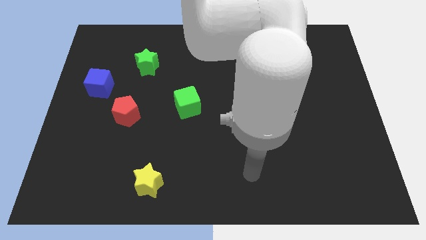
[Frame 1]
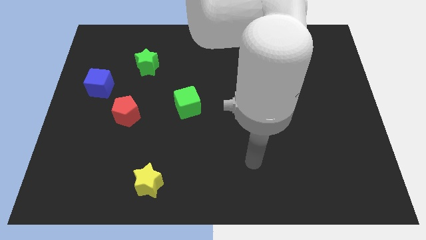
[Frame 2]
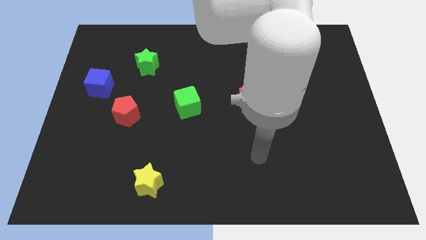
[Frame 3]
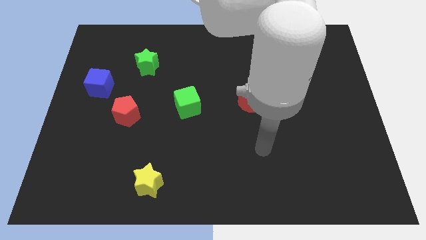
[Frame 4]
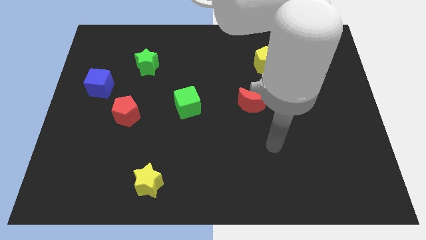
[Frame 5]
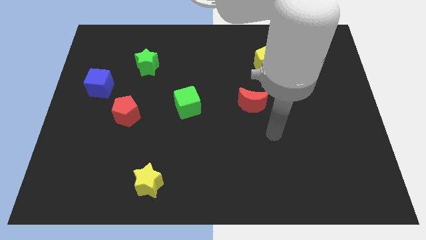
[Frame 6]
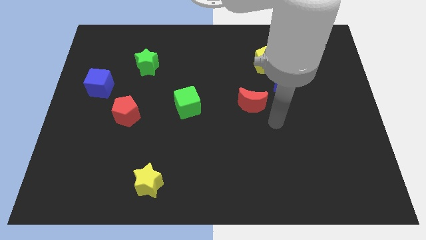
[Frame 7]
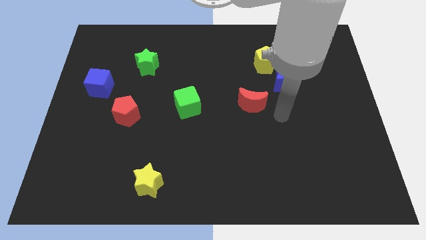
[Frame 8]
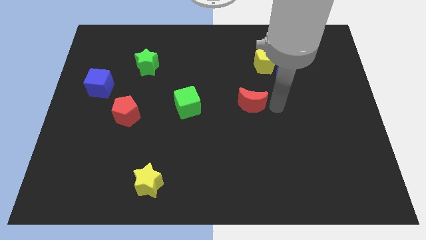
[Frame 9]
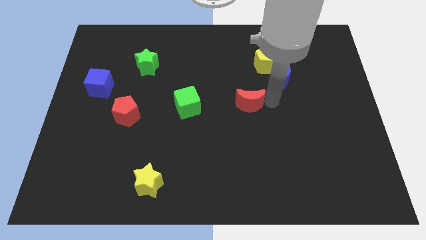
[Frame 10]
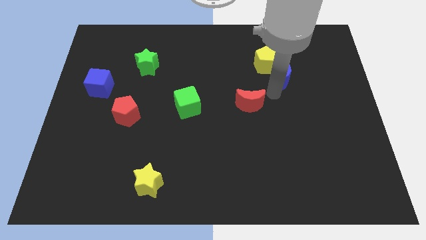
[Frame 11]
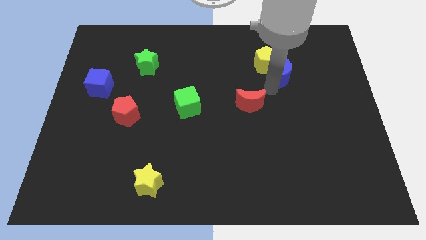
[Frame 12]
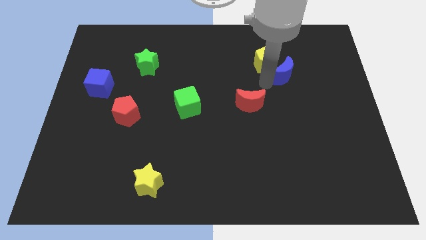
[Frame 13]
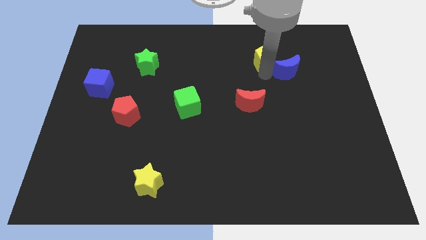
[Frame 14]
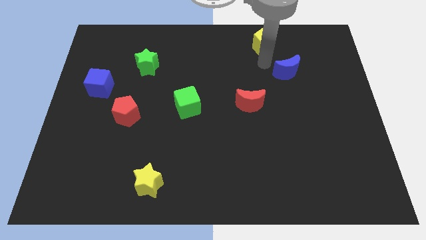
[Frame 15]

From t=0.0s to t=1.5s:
pull the blue moon apart from the yellow pentagon

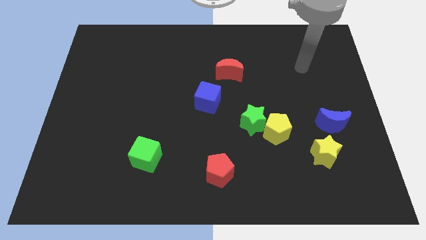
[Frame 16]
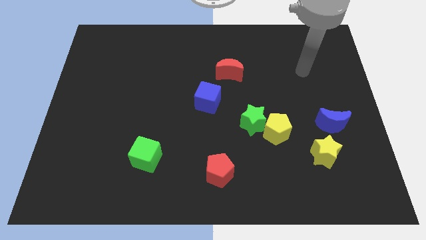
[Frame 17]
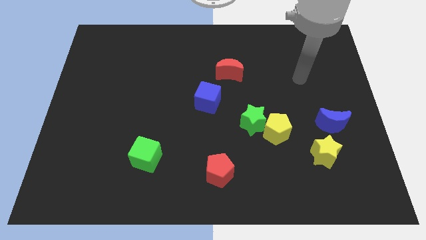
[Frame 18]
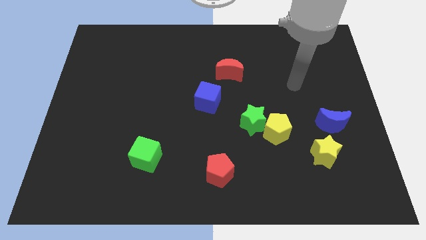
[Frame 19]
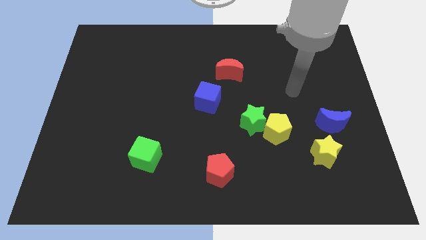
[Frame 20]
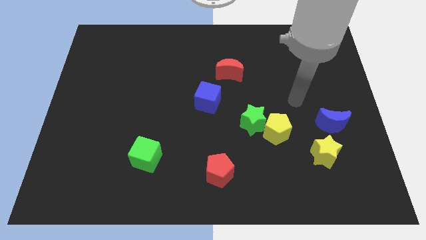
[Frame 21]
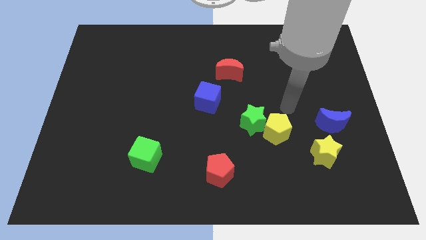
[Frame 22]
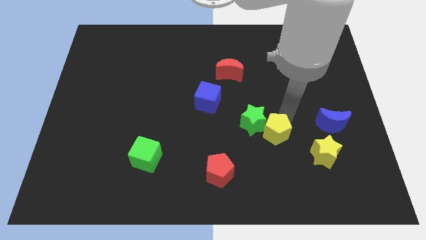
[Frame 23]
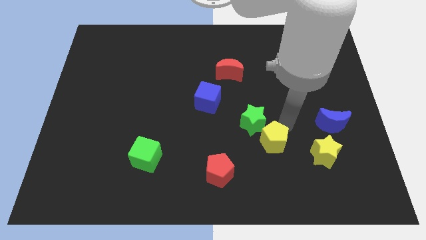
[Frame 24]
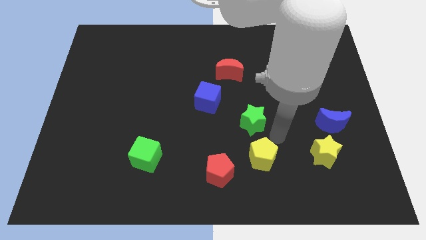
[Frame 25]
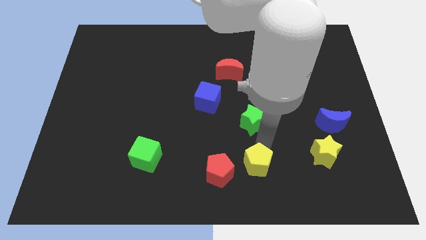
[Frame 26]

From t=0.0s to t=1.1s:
move the green star away from the yellow pentagon

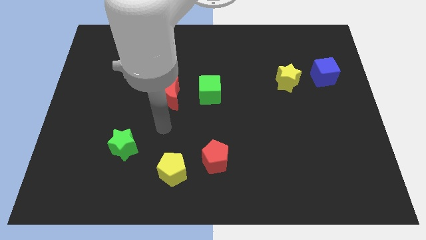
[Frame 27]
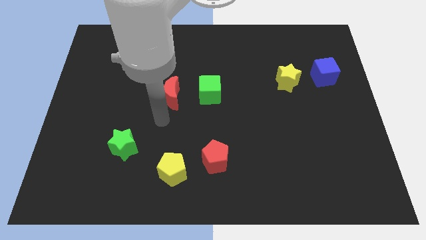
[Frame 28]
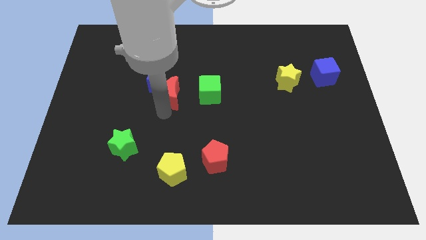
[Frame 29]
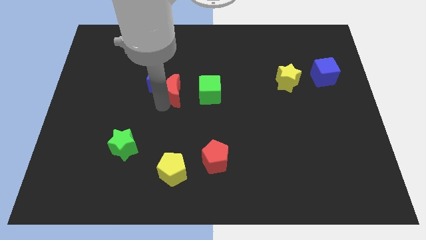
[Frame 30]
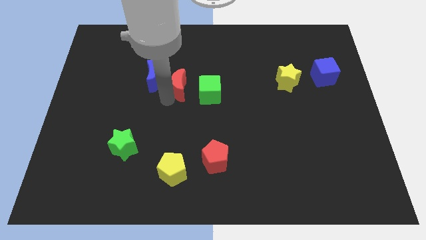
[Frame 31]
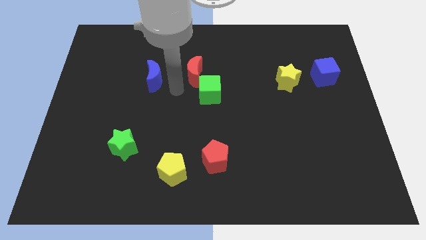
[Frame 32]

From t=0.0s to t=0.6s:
move the blue moon away from the red moon

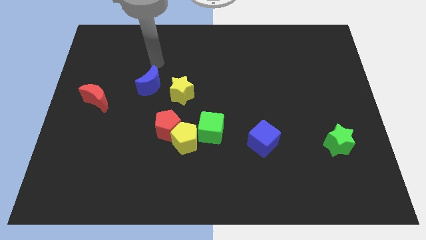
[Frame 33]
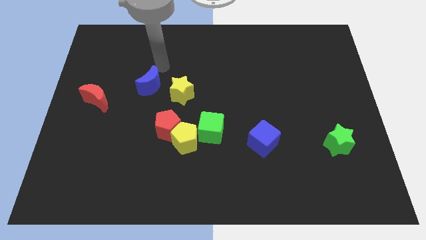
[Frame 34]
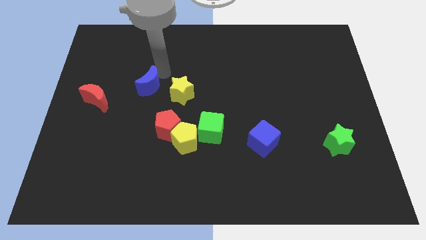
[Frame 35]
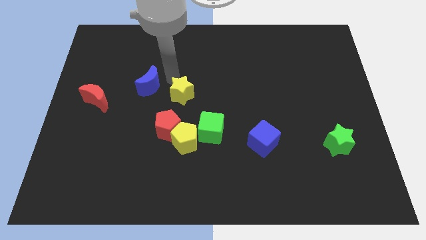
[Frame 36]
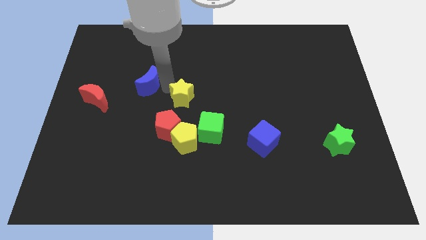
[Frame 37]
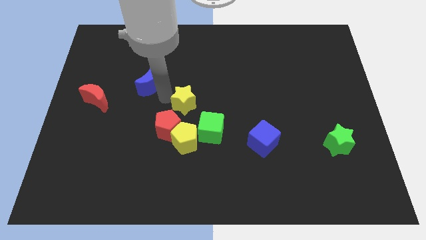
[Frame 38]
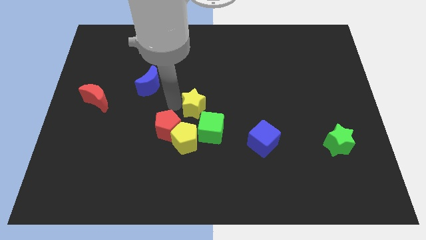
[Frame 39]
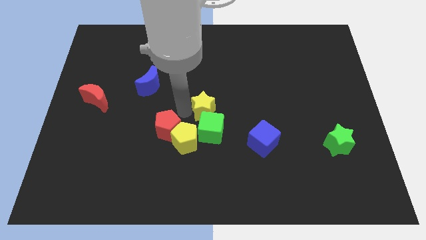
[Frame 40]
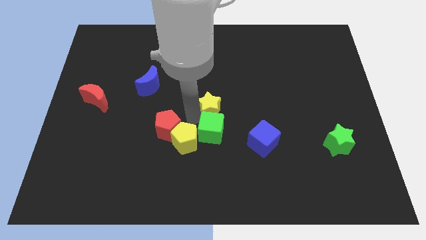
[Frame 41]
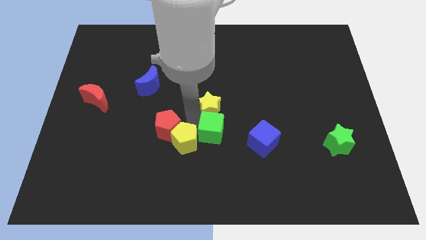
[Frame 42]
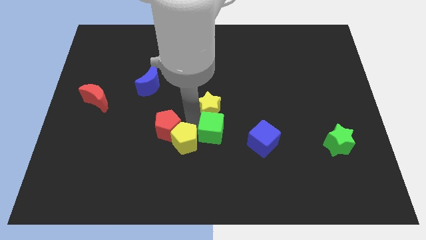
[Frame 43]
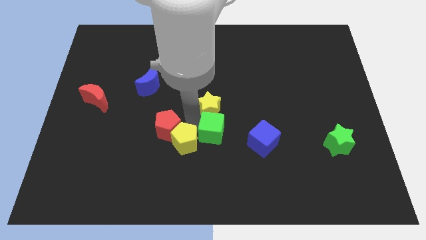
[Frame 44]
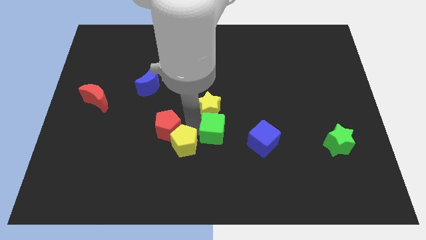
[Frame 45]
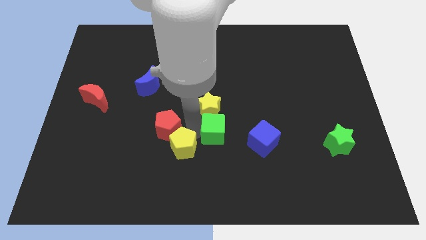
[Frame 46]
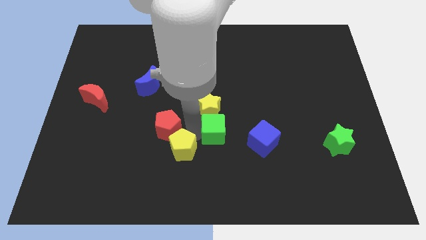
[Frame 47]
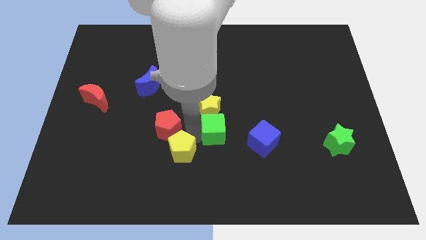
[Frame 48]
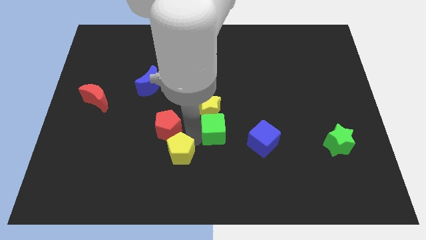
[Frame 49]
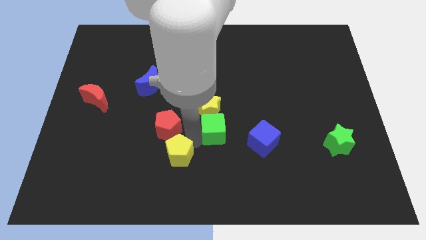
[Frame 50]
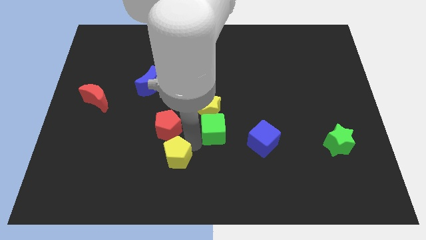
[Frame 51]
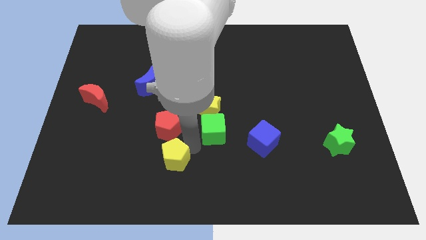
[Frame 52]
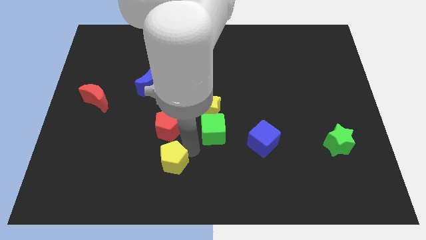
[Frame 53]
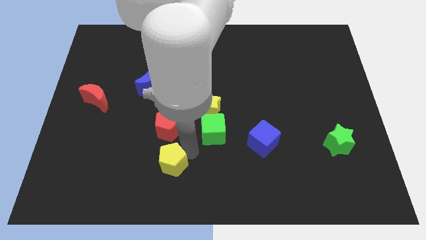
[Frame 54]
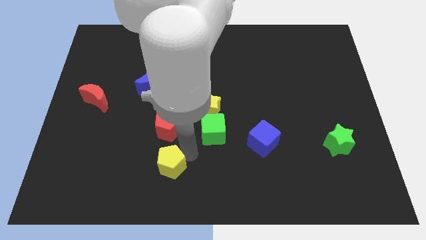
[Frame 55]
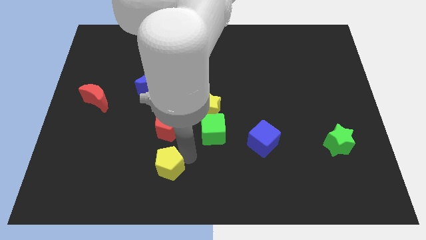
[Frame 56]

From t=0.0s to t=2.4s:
separate the yellow pentagon from the red pentagon and green cube

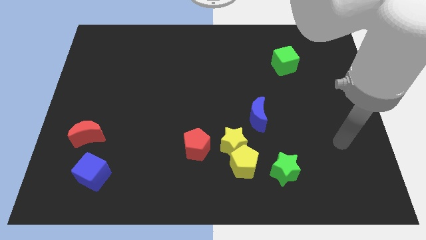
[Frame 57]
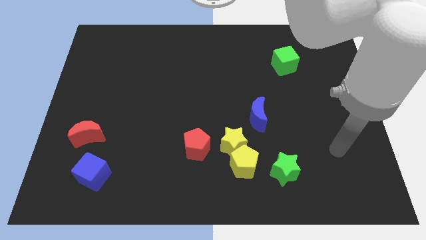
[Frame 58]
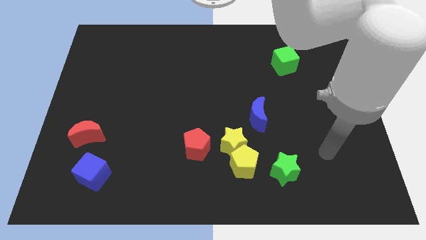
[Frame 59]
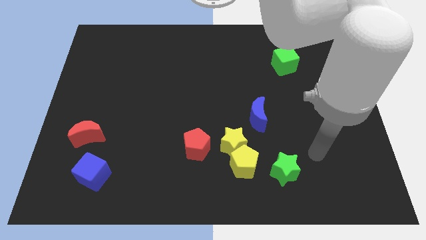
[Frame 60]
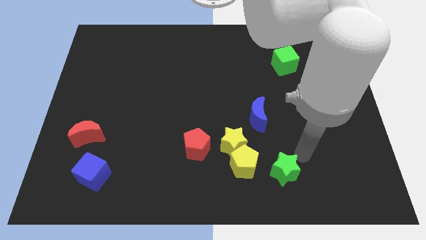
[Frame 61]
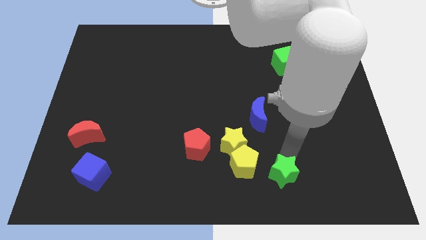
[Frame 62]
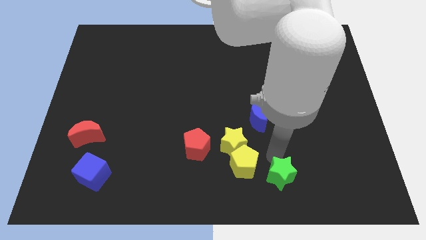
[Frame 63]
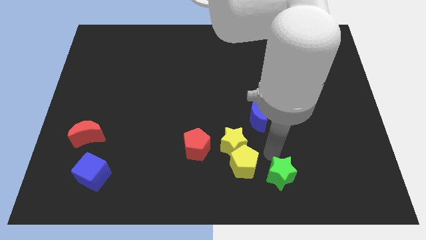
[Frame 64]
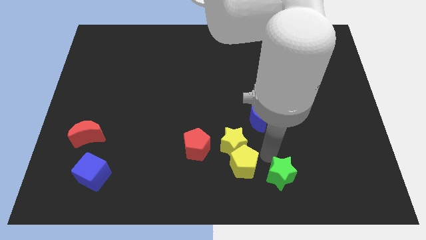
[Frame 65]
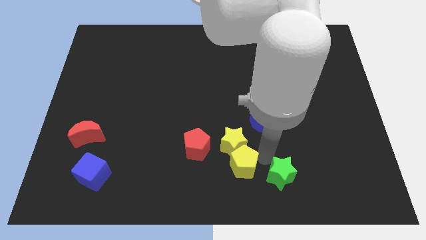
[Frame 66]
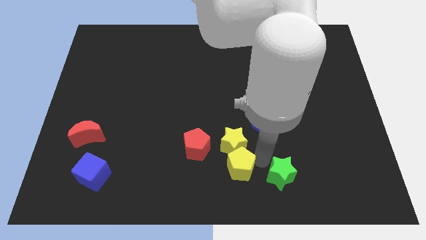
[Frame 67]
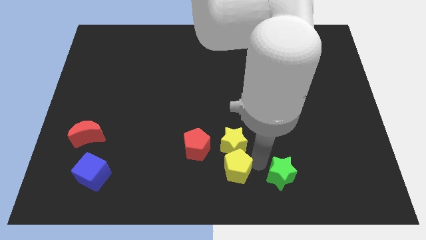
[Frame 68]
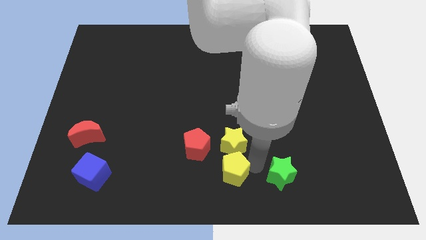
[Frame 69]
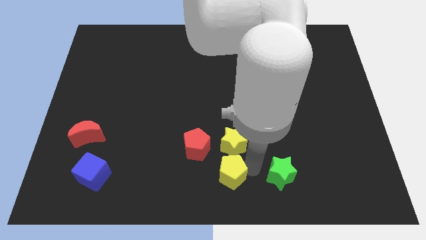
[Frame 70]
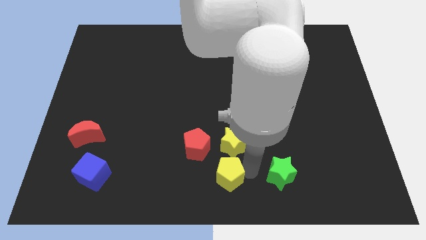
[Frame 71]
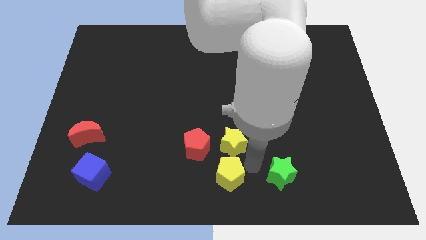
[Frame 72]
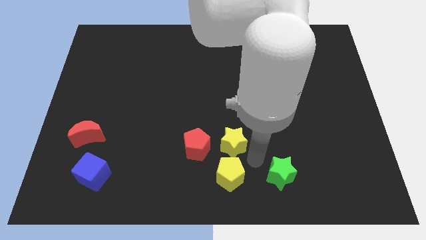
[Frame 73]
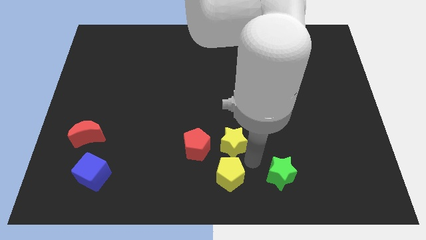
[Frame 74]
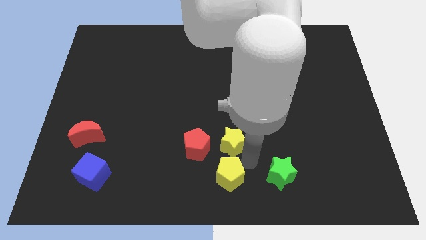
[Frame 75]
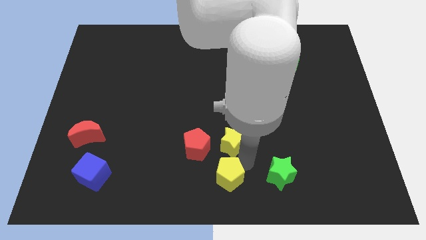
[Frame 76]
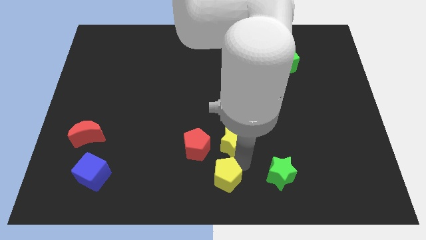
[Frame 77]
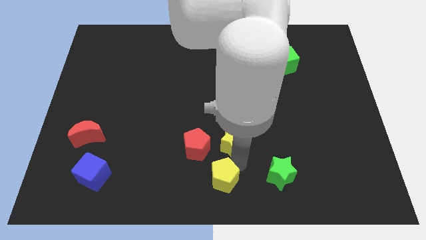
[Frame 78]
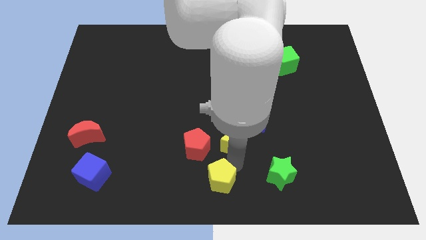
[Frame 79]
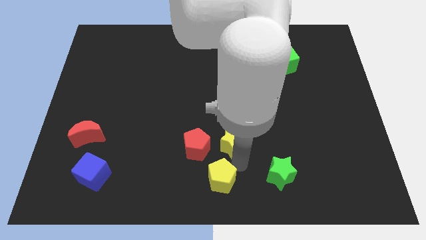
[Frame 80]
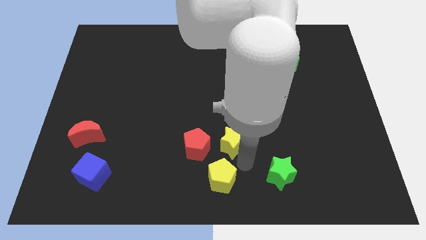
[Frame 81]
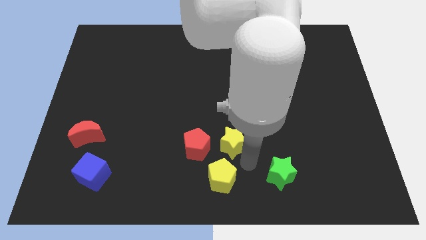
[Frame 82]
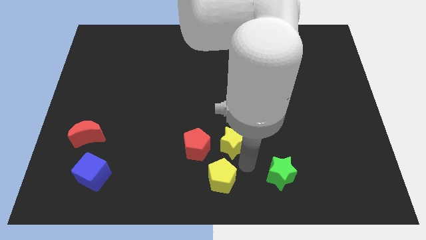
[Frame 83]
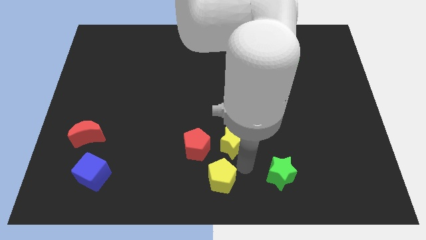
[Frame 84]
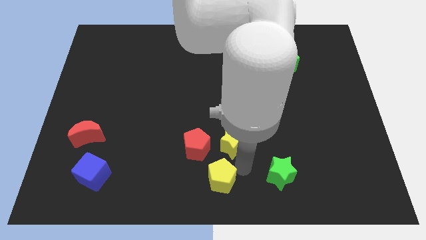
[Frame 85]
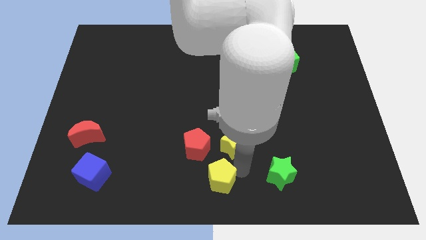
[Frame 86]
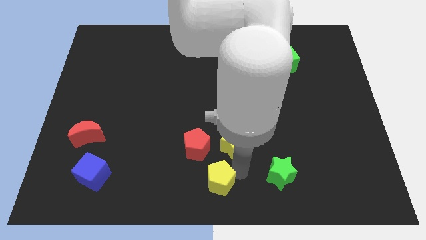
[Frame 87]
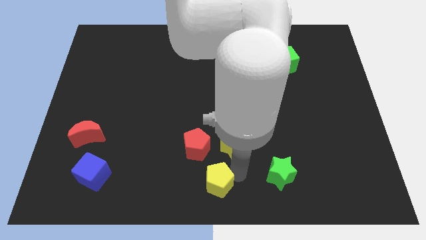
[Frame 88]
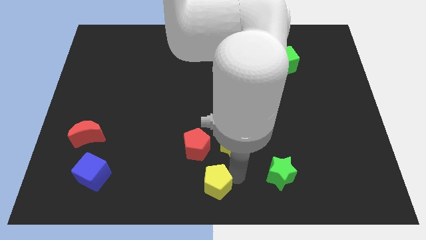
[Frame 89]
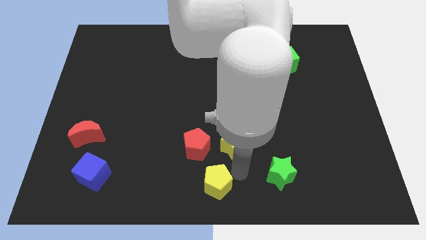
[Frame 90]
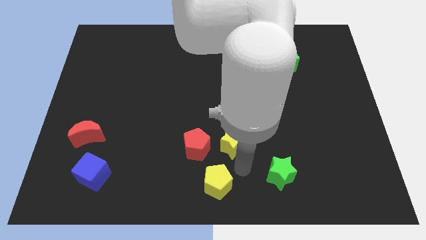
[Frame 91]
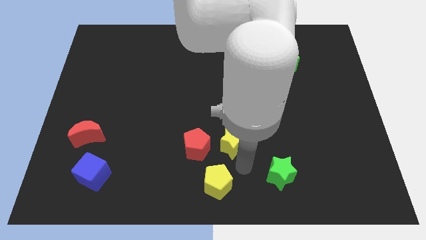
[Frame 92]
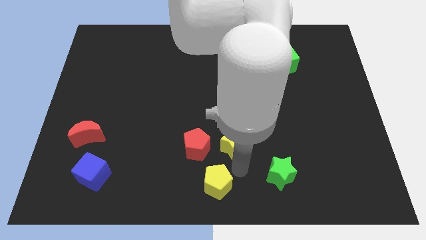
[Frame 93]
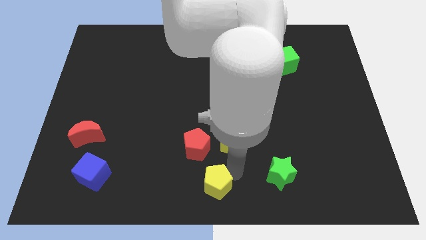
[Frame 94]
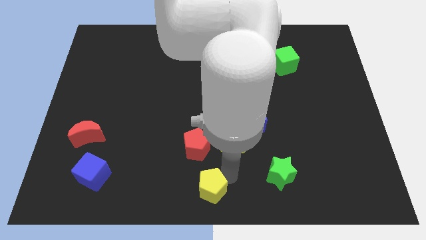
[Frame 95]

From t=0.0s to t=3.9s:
pull the yellow pentagon apart from the yellow star and green star
